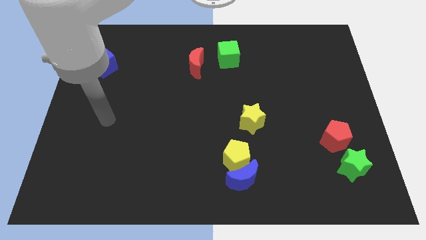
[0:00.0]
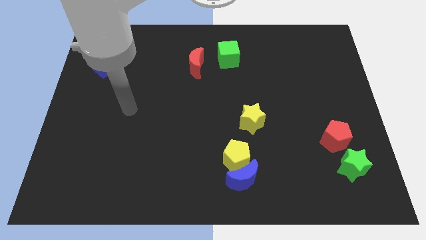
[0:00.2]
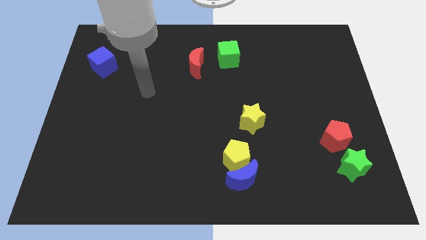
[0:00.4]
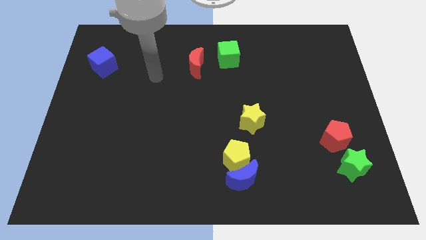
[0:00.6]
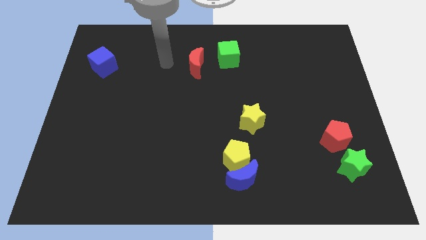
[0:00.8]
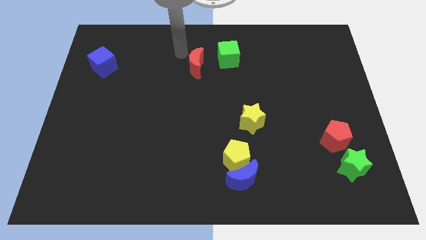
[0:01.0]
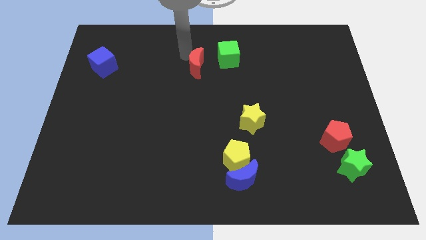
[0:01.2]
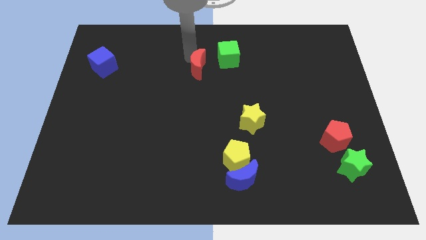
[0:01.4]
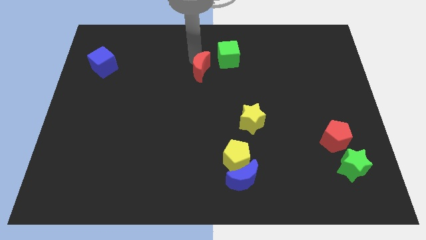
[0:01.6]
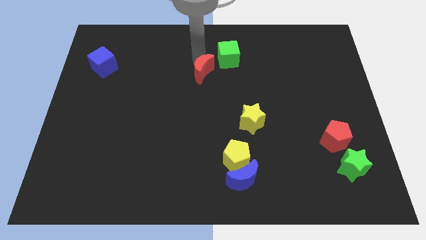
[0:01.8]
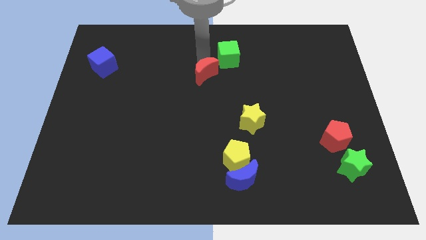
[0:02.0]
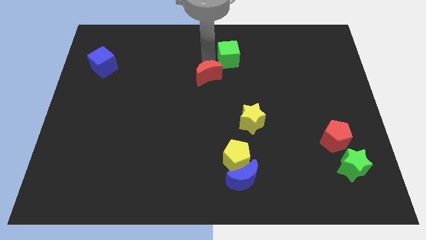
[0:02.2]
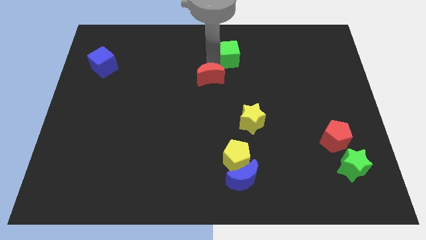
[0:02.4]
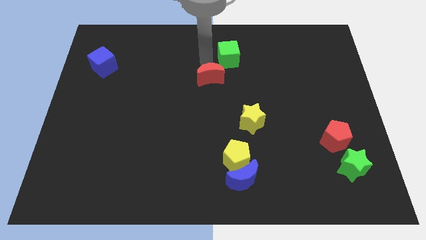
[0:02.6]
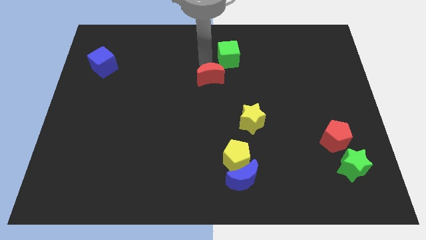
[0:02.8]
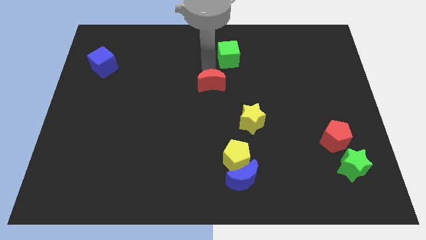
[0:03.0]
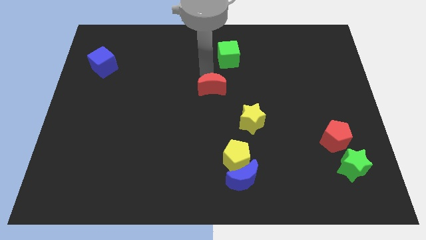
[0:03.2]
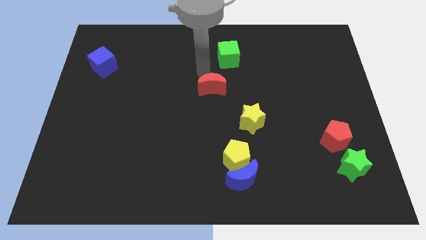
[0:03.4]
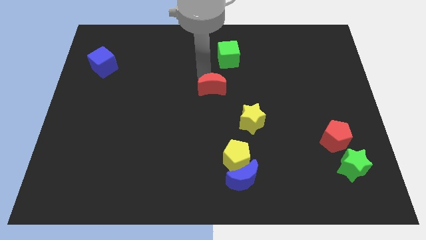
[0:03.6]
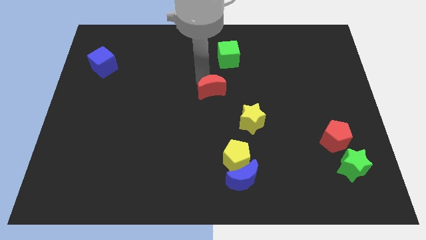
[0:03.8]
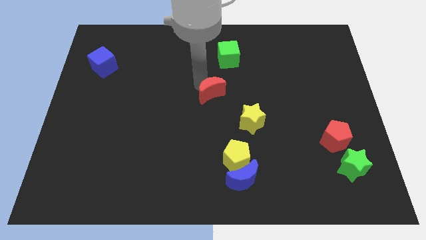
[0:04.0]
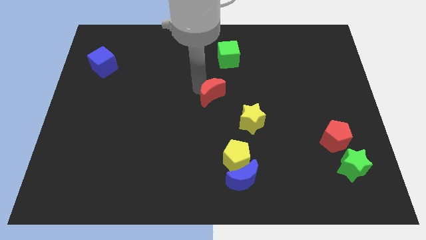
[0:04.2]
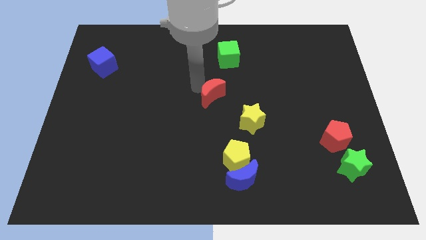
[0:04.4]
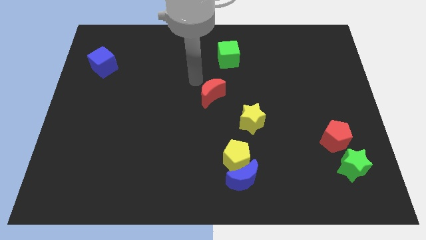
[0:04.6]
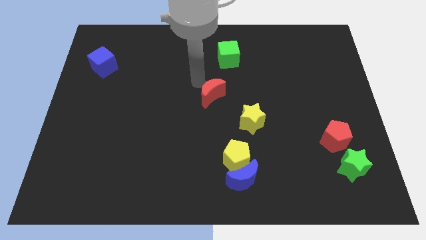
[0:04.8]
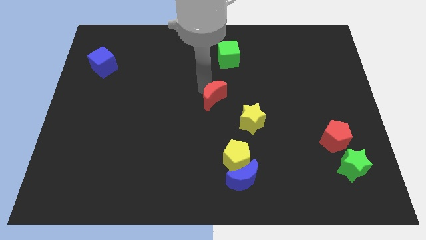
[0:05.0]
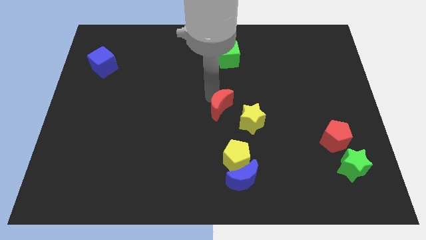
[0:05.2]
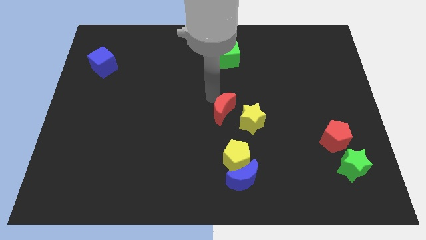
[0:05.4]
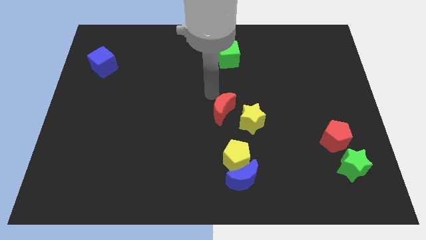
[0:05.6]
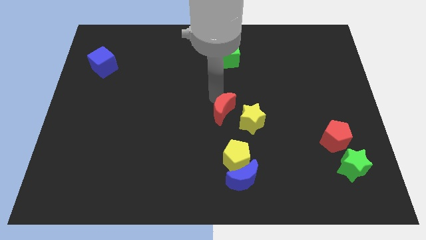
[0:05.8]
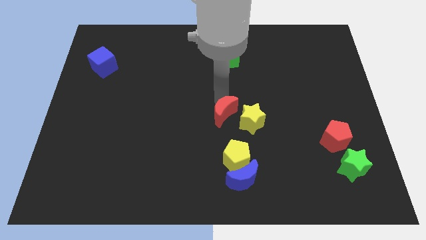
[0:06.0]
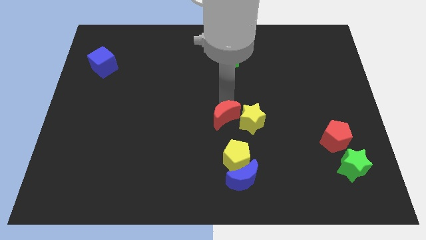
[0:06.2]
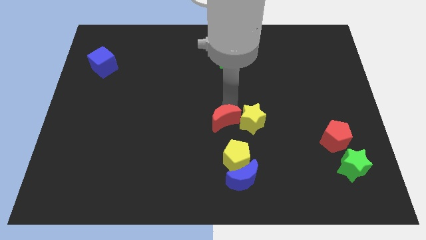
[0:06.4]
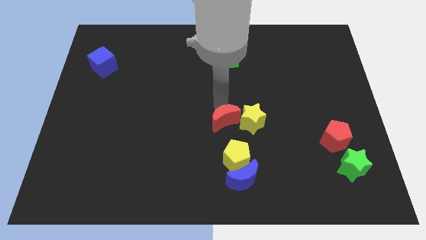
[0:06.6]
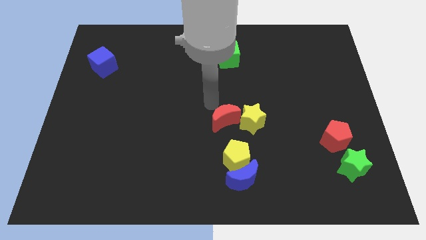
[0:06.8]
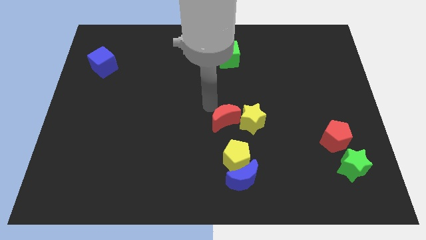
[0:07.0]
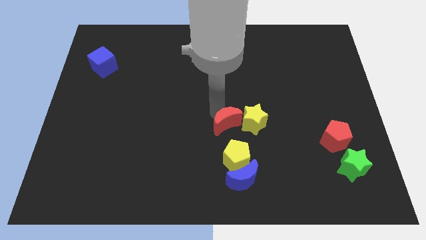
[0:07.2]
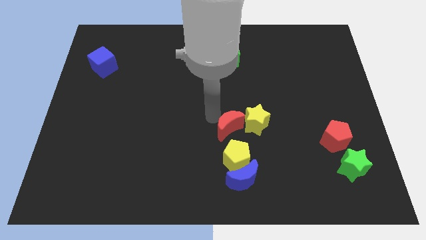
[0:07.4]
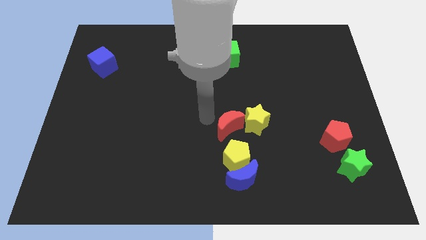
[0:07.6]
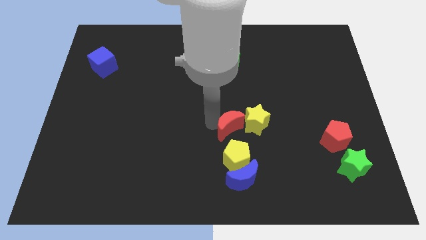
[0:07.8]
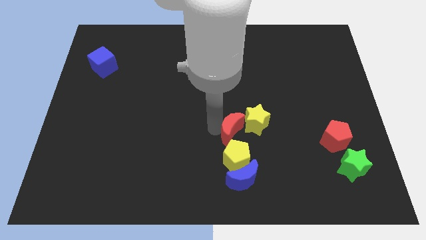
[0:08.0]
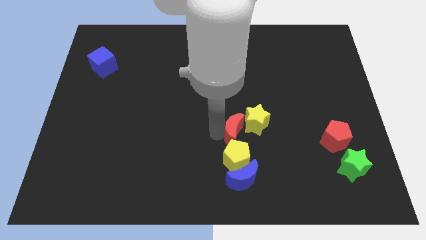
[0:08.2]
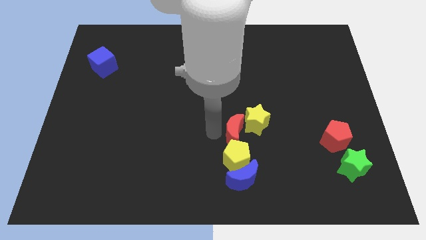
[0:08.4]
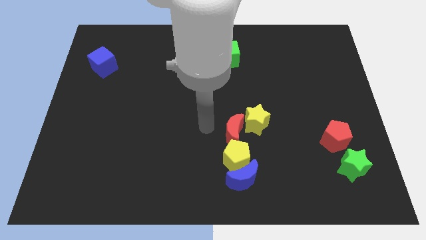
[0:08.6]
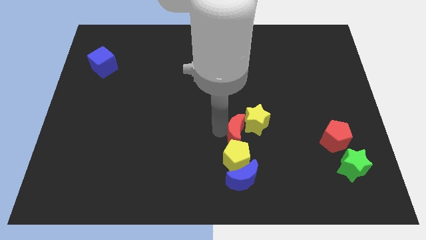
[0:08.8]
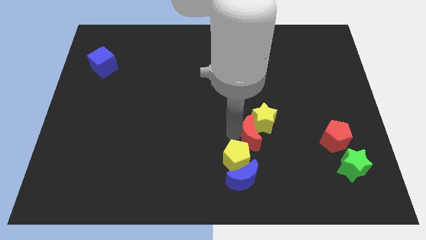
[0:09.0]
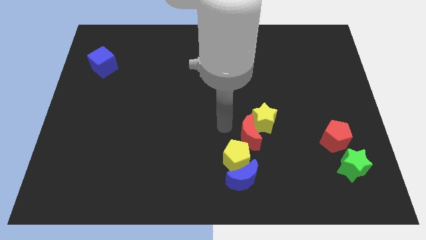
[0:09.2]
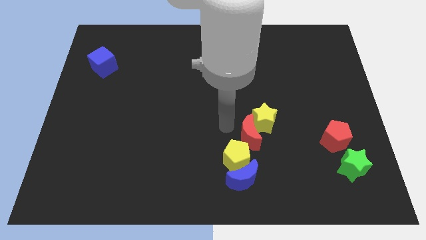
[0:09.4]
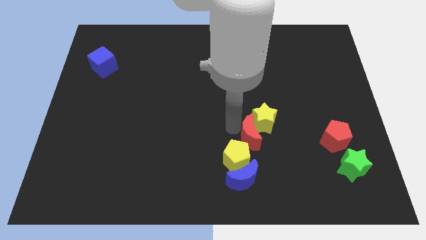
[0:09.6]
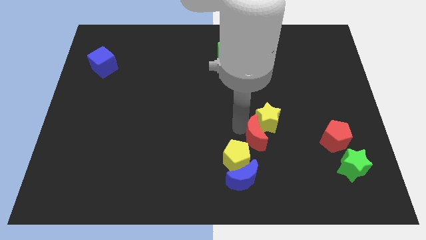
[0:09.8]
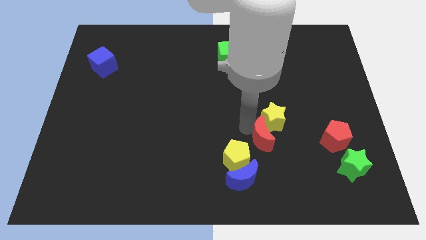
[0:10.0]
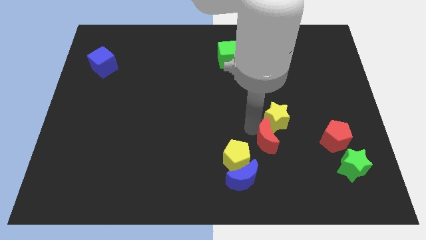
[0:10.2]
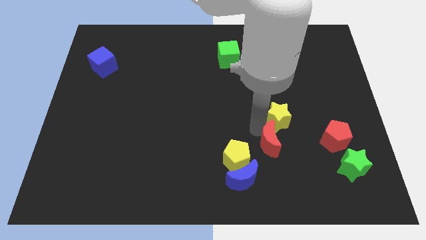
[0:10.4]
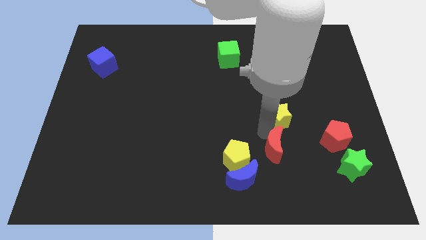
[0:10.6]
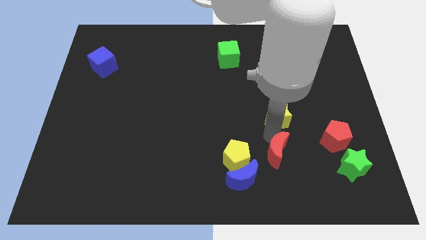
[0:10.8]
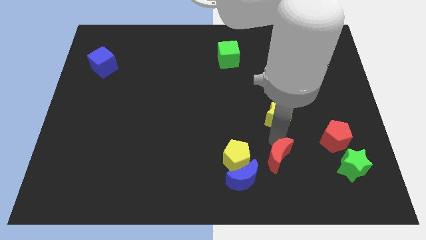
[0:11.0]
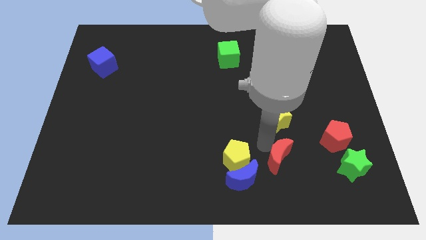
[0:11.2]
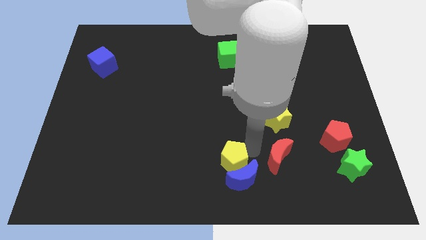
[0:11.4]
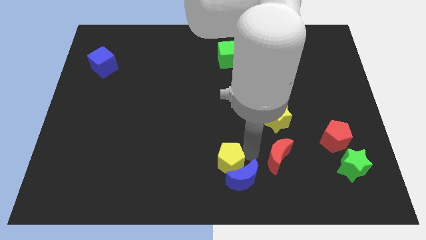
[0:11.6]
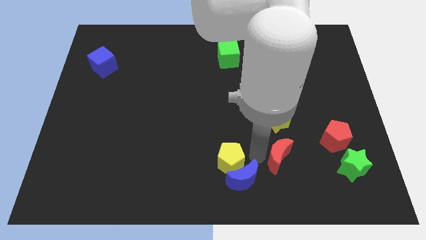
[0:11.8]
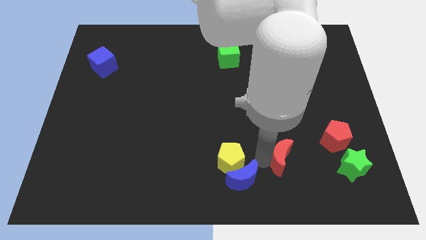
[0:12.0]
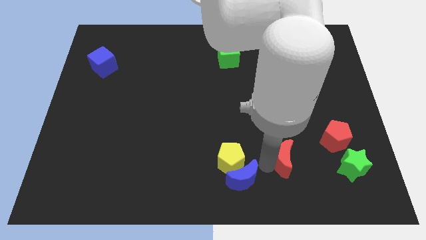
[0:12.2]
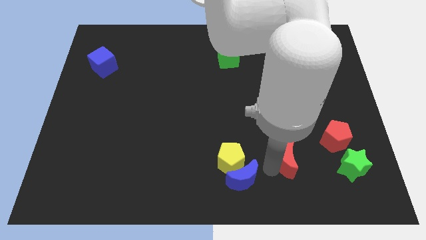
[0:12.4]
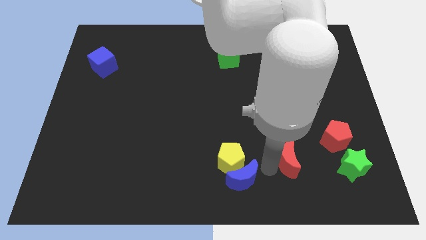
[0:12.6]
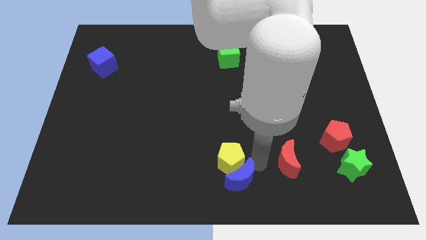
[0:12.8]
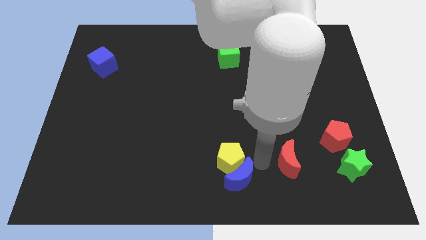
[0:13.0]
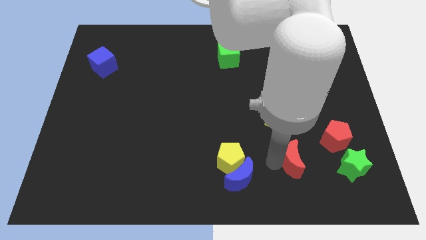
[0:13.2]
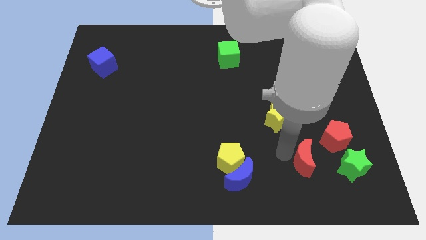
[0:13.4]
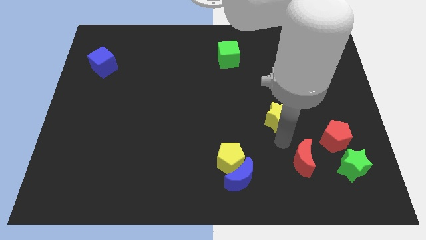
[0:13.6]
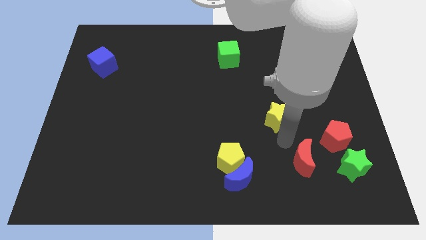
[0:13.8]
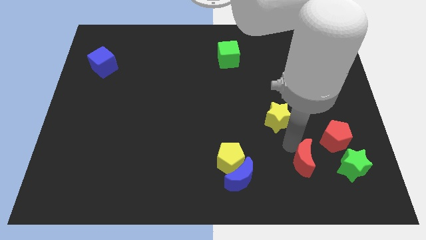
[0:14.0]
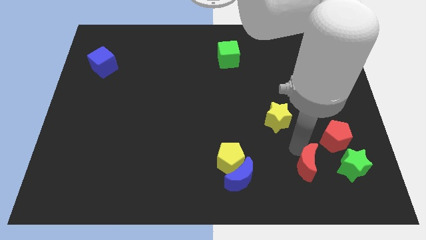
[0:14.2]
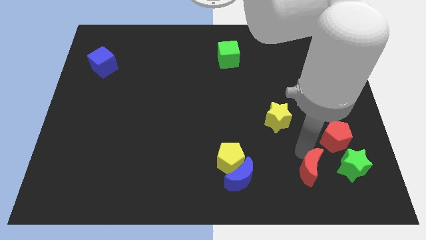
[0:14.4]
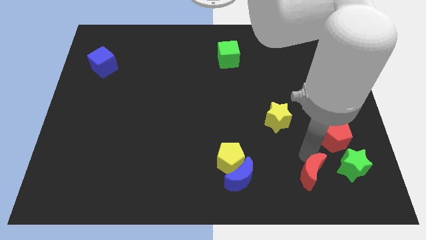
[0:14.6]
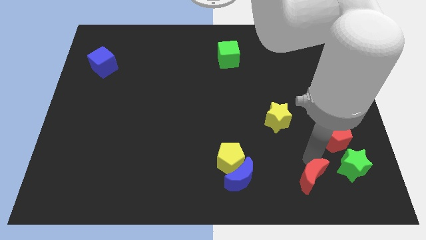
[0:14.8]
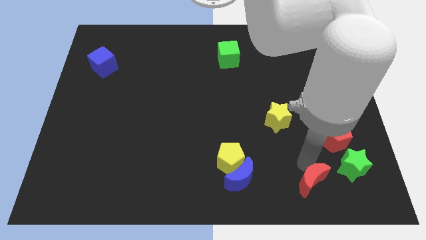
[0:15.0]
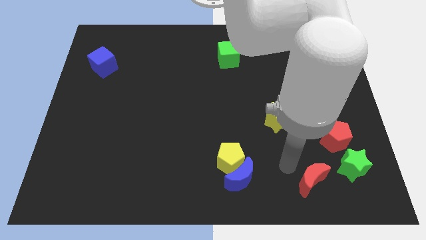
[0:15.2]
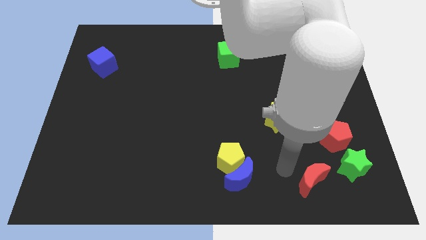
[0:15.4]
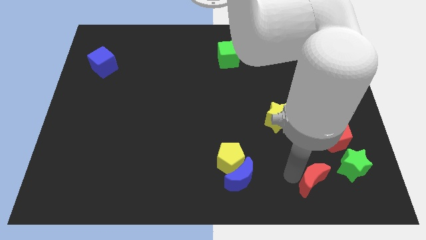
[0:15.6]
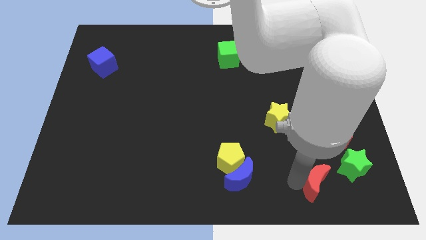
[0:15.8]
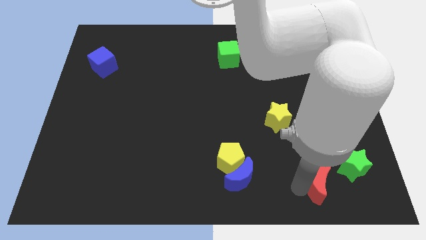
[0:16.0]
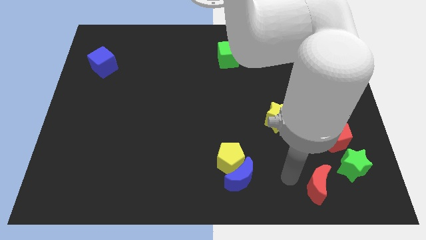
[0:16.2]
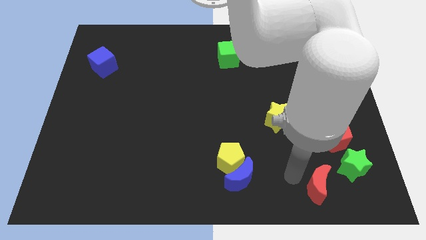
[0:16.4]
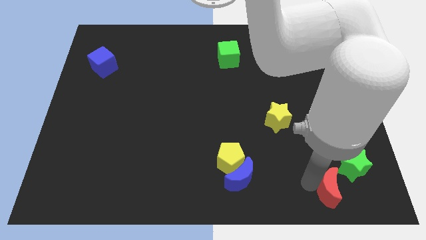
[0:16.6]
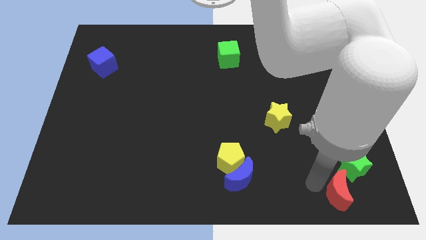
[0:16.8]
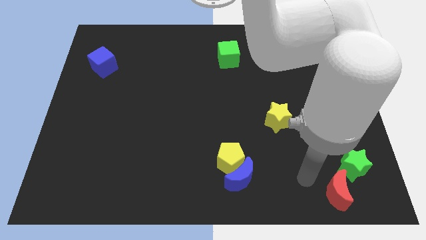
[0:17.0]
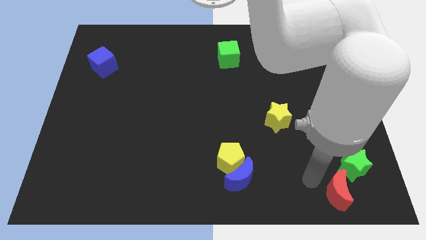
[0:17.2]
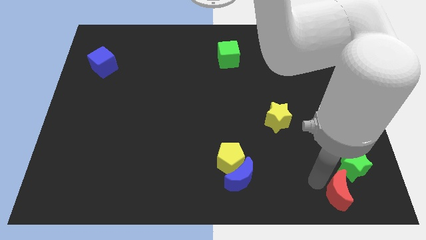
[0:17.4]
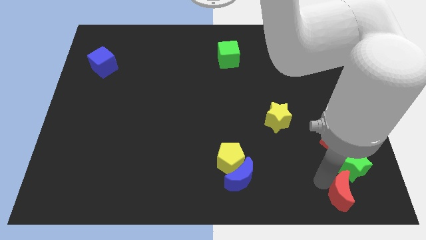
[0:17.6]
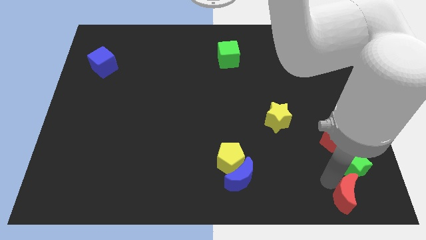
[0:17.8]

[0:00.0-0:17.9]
put the red moon to the bottom right corner
